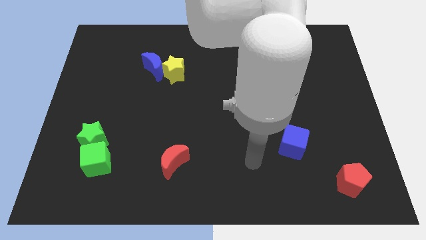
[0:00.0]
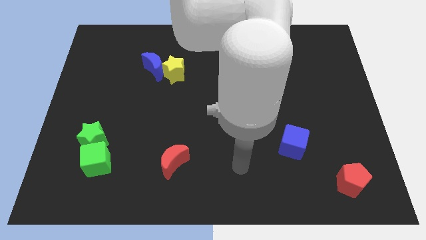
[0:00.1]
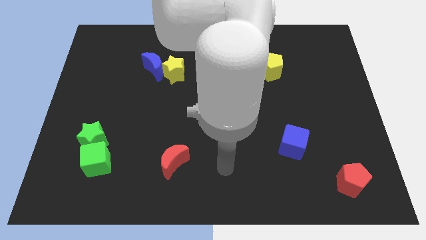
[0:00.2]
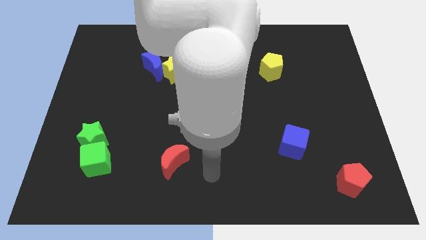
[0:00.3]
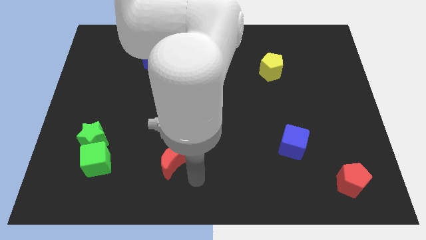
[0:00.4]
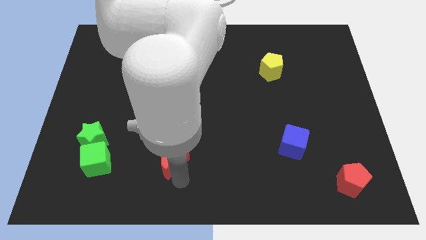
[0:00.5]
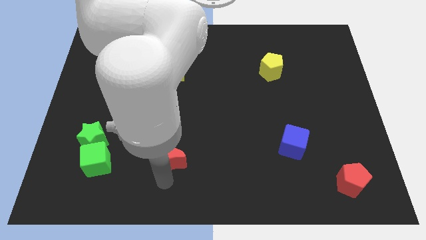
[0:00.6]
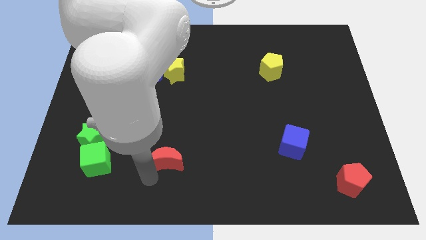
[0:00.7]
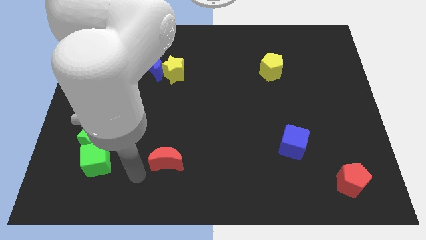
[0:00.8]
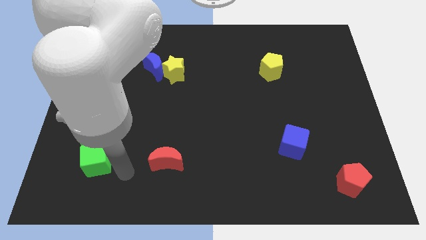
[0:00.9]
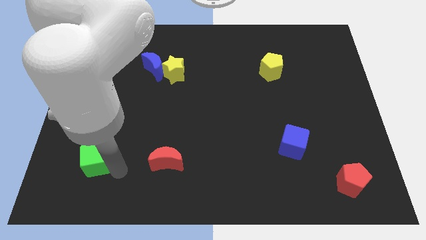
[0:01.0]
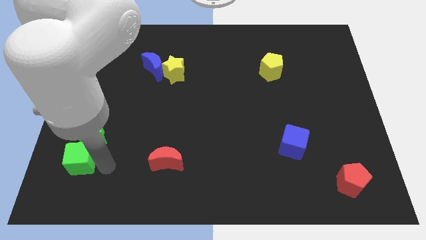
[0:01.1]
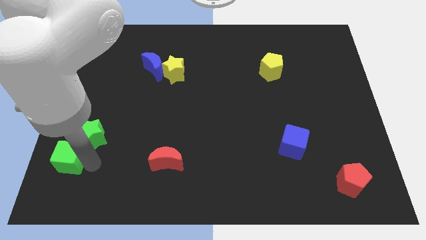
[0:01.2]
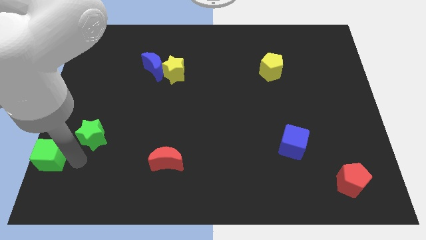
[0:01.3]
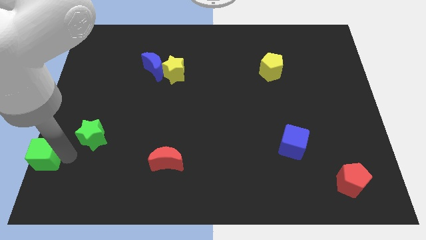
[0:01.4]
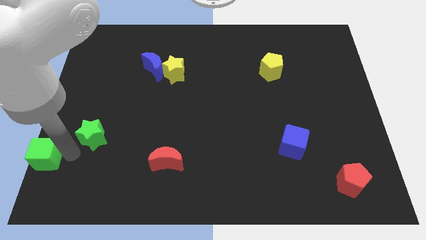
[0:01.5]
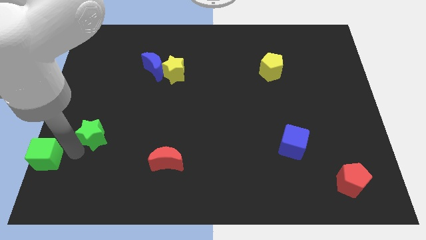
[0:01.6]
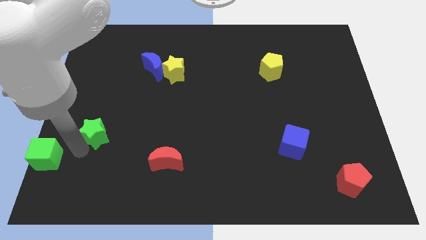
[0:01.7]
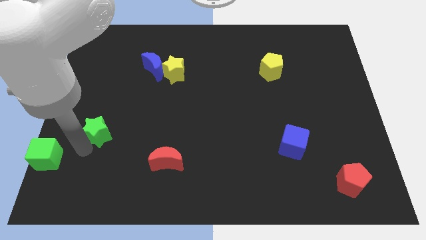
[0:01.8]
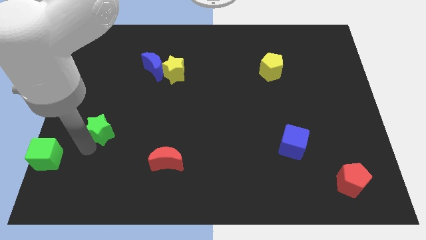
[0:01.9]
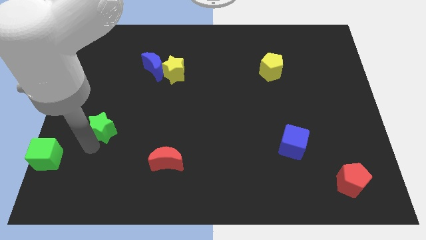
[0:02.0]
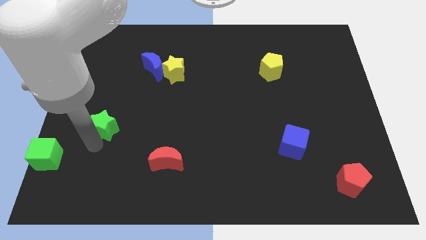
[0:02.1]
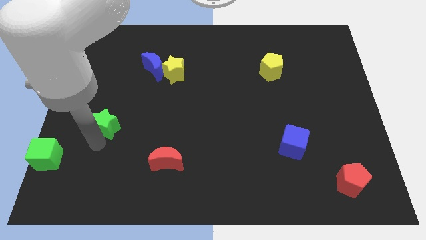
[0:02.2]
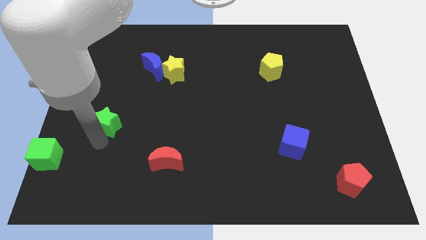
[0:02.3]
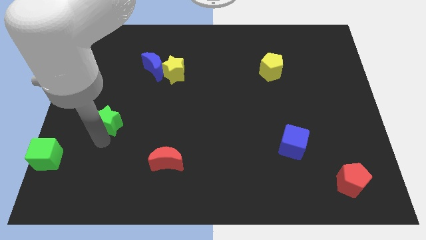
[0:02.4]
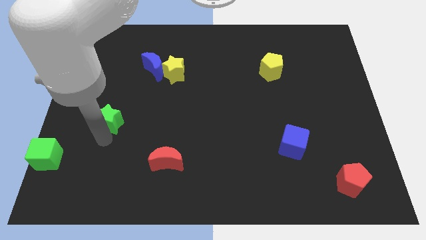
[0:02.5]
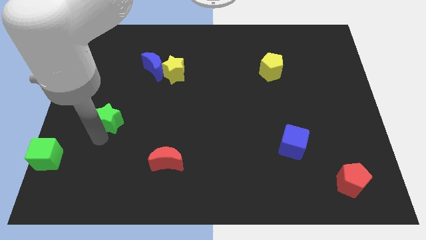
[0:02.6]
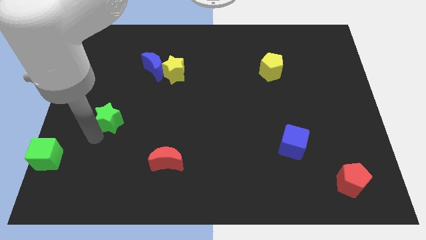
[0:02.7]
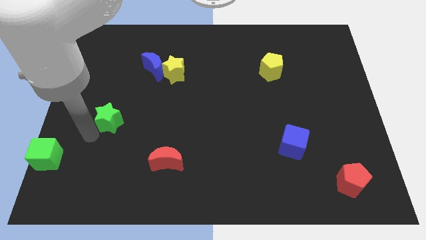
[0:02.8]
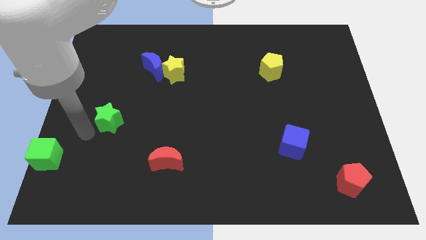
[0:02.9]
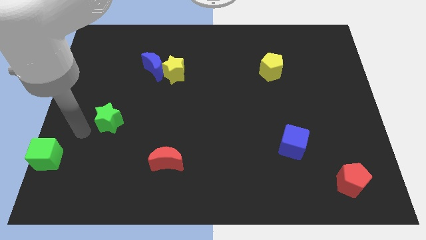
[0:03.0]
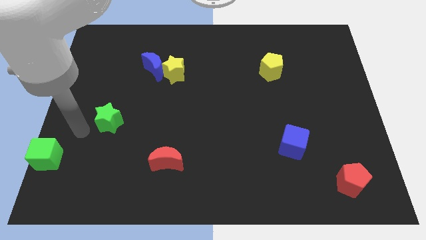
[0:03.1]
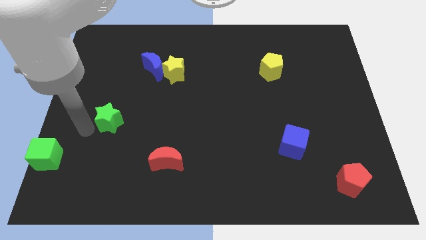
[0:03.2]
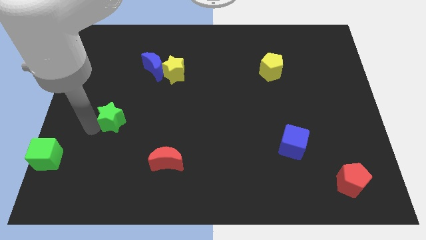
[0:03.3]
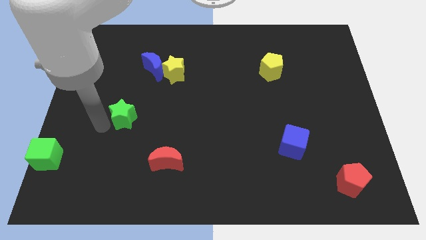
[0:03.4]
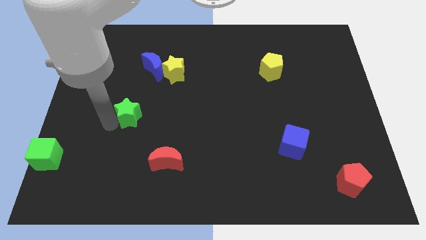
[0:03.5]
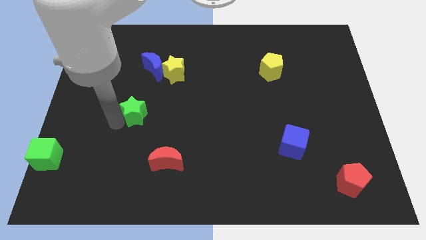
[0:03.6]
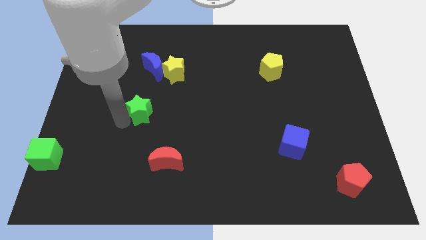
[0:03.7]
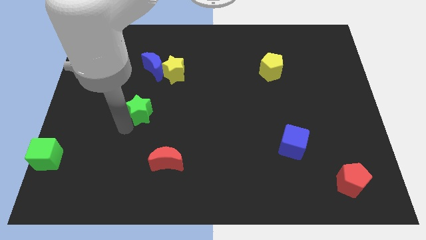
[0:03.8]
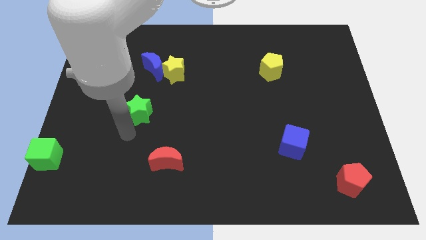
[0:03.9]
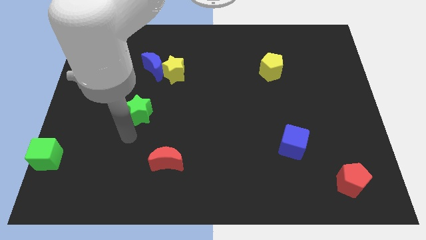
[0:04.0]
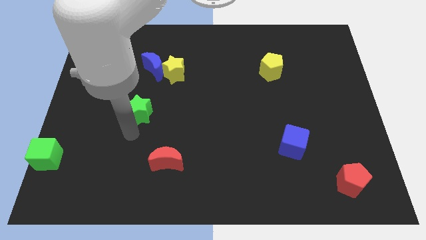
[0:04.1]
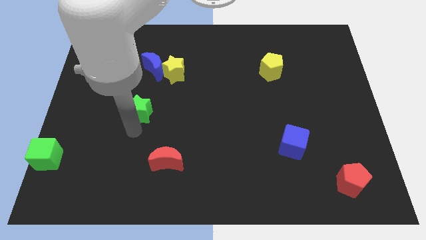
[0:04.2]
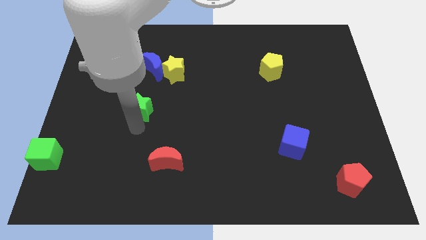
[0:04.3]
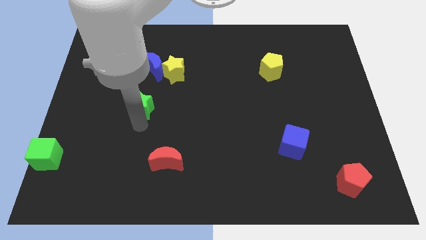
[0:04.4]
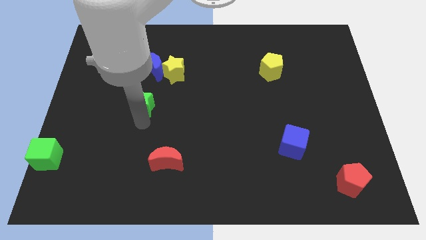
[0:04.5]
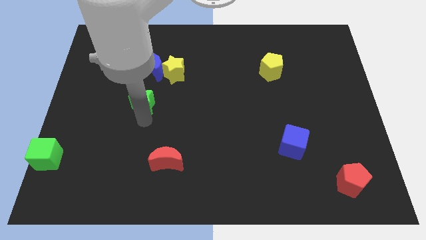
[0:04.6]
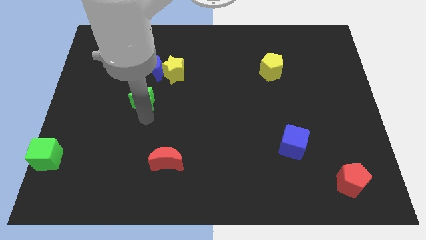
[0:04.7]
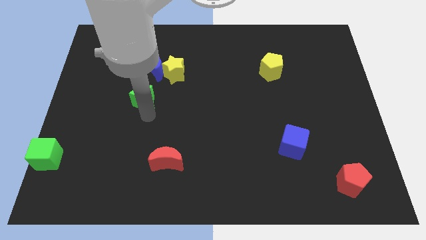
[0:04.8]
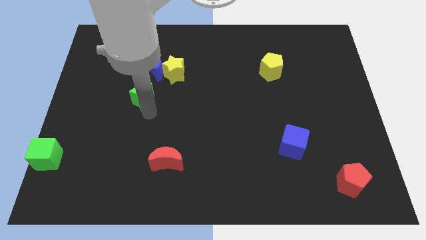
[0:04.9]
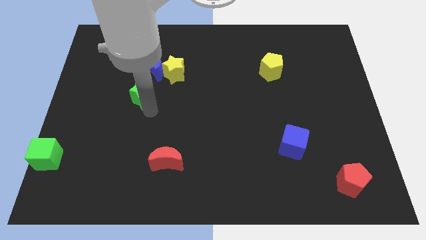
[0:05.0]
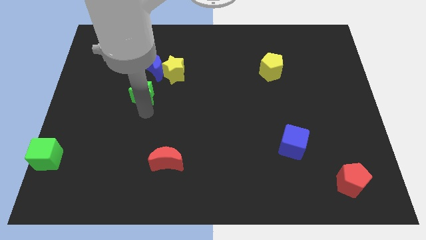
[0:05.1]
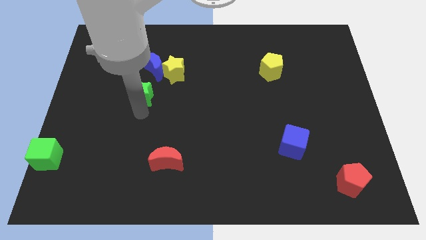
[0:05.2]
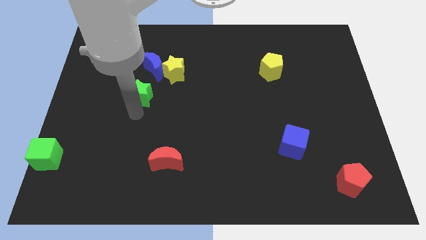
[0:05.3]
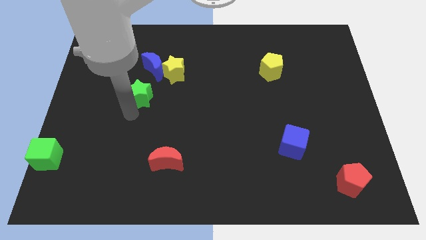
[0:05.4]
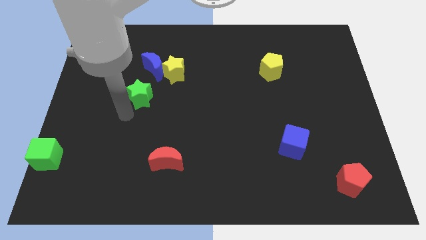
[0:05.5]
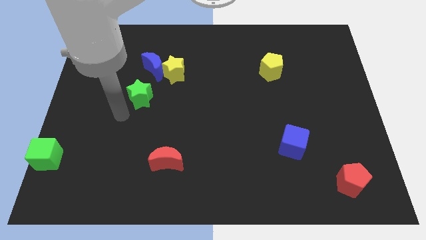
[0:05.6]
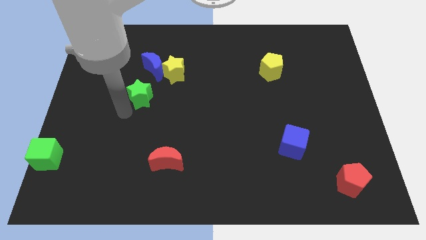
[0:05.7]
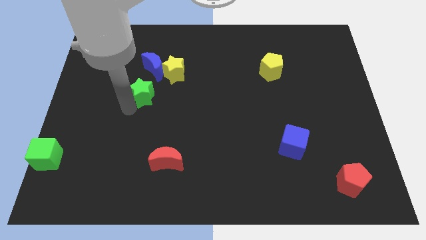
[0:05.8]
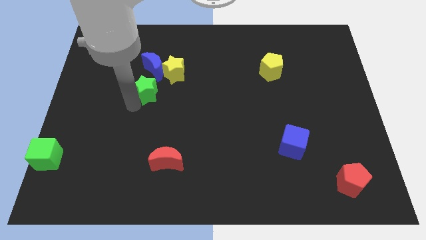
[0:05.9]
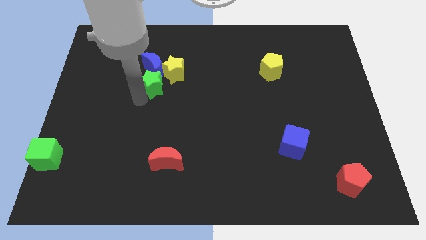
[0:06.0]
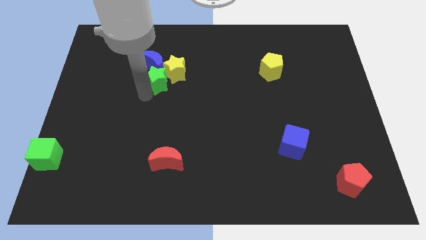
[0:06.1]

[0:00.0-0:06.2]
put the green star towards the yellow star

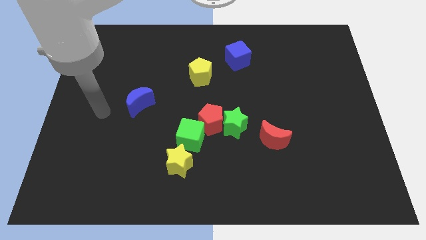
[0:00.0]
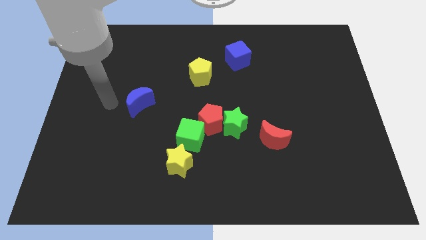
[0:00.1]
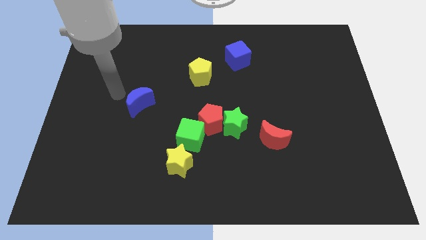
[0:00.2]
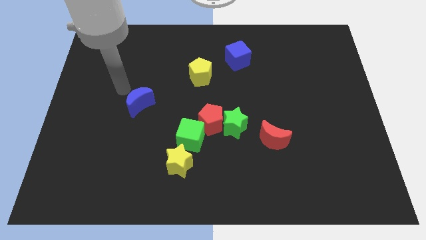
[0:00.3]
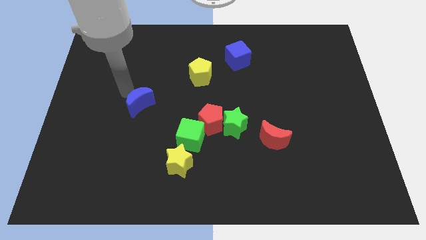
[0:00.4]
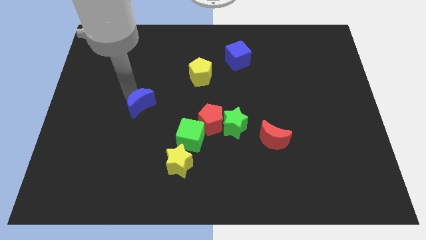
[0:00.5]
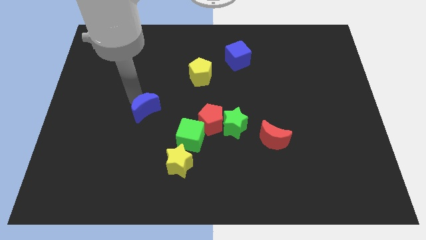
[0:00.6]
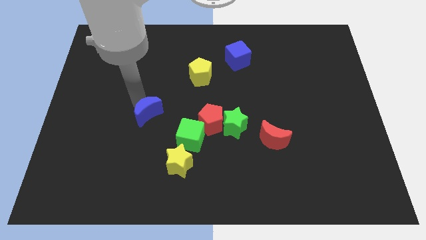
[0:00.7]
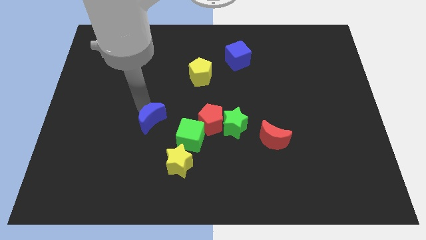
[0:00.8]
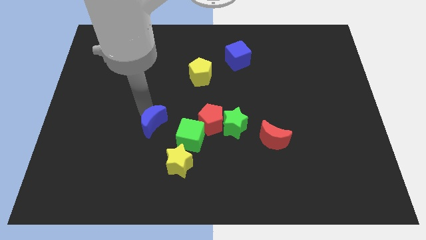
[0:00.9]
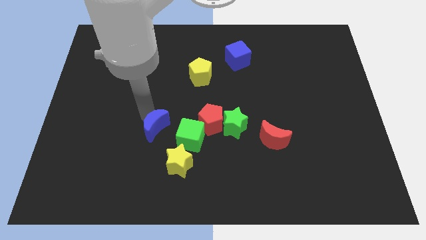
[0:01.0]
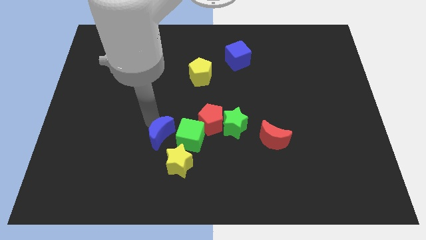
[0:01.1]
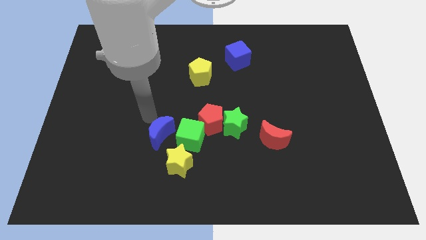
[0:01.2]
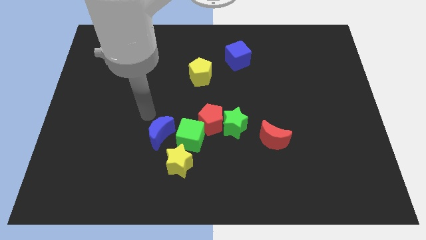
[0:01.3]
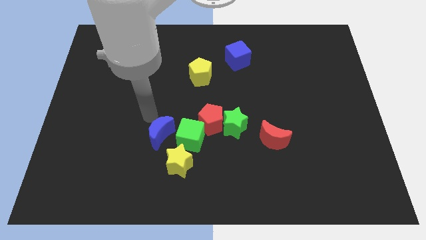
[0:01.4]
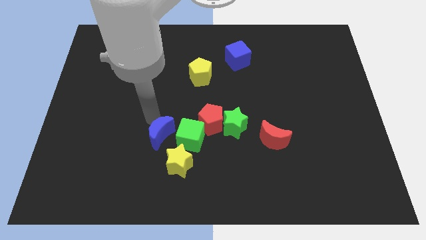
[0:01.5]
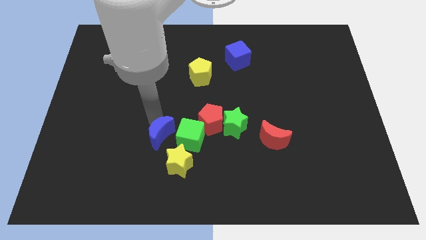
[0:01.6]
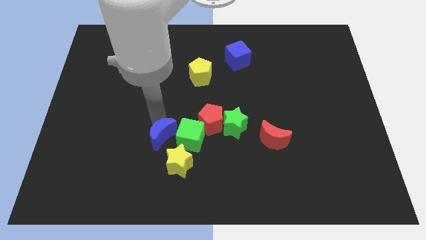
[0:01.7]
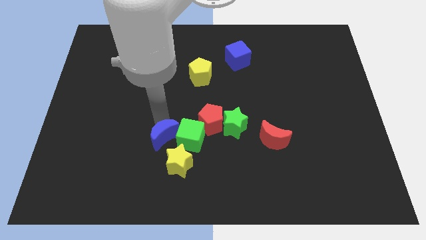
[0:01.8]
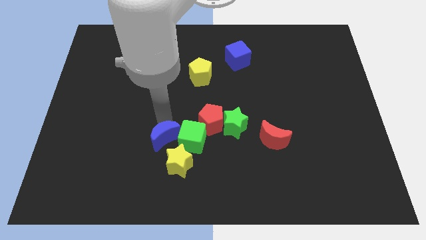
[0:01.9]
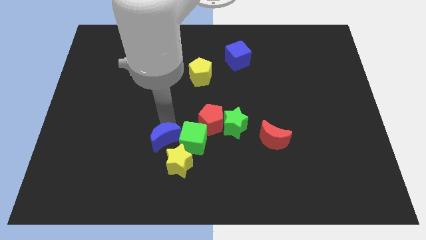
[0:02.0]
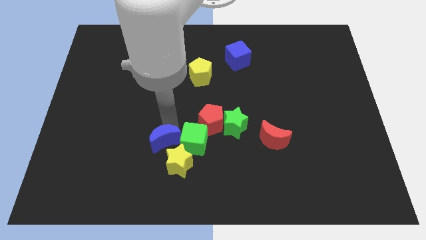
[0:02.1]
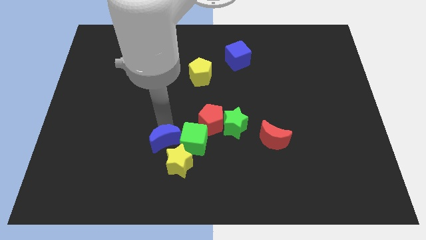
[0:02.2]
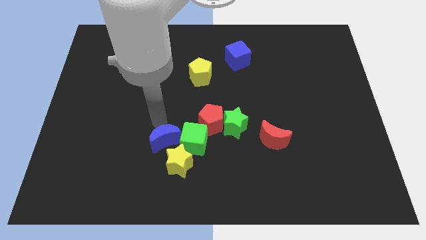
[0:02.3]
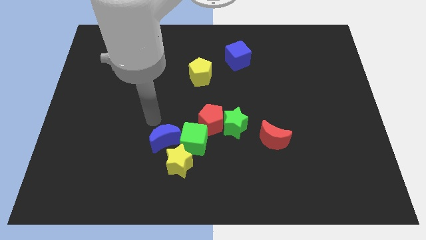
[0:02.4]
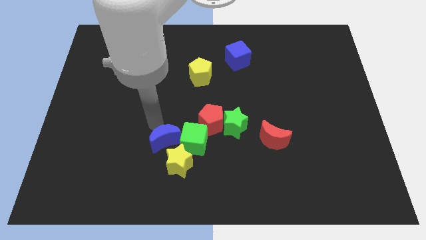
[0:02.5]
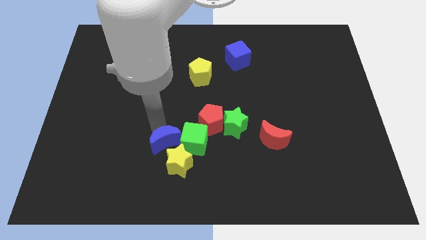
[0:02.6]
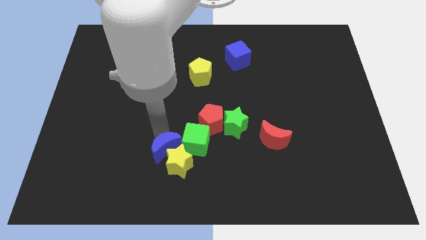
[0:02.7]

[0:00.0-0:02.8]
move the blue moon next to the yellow star
